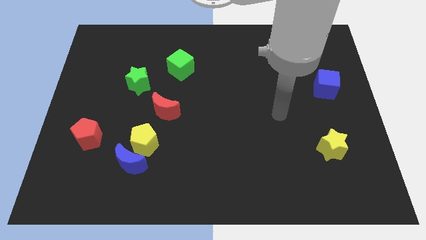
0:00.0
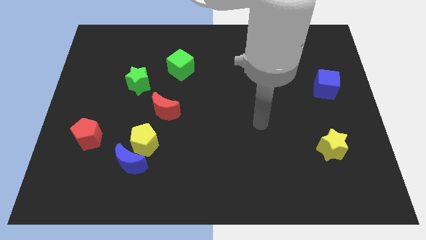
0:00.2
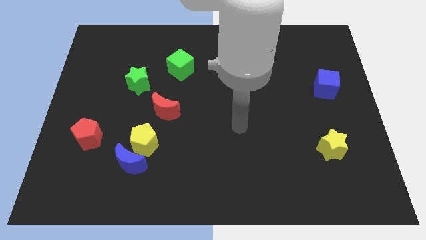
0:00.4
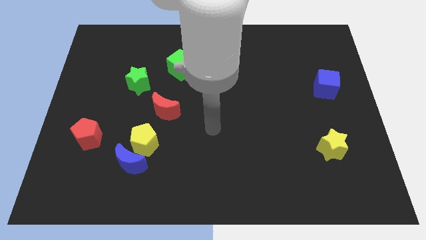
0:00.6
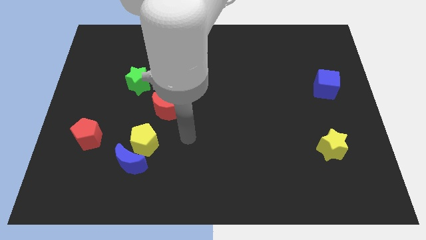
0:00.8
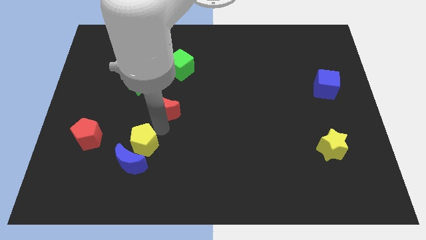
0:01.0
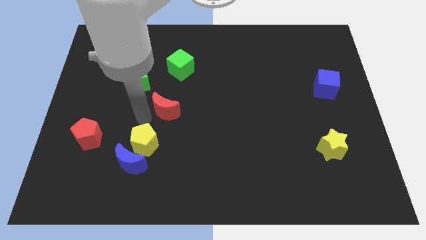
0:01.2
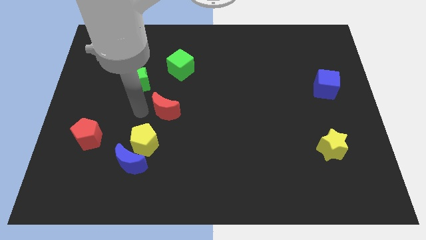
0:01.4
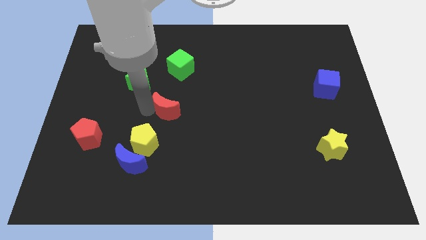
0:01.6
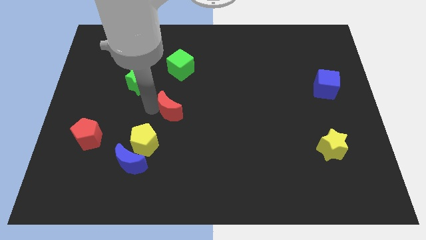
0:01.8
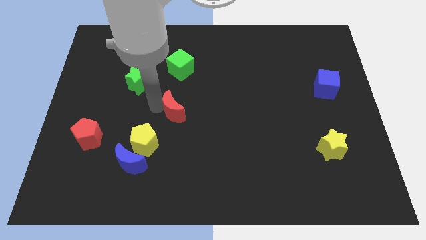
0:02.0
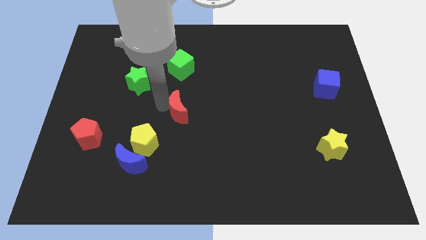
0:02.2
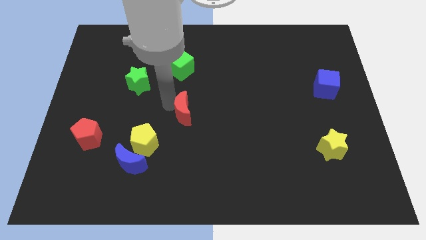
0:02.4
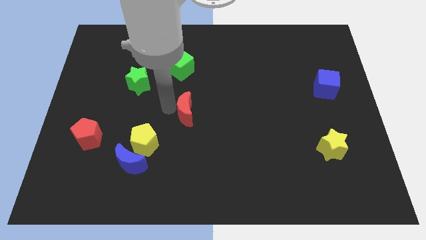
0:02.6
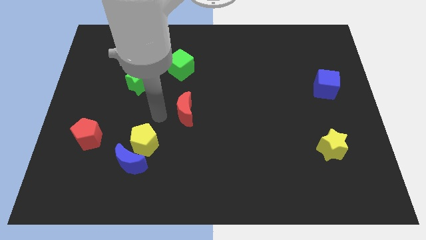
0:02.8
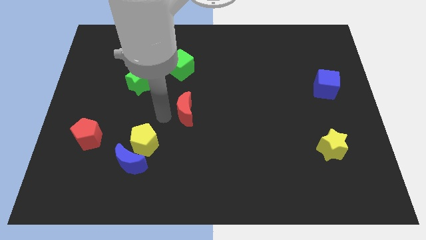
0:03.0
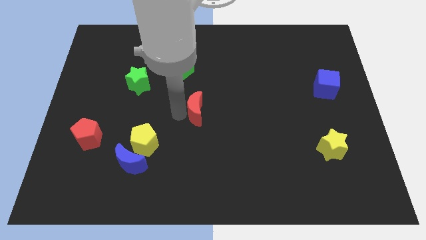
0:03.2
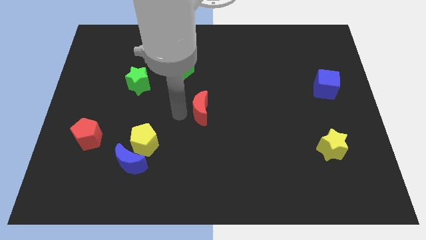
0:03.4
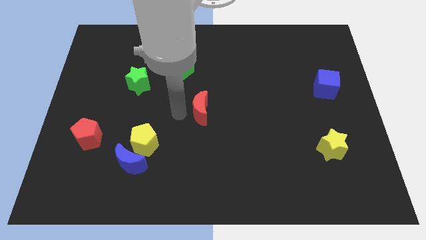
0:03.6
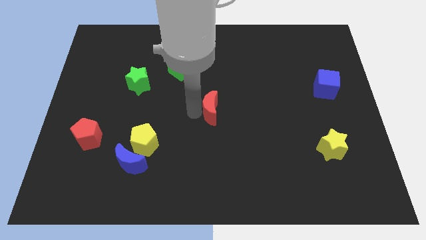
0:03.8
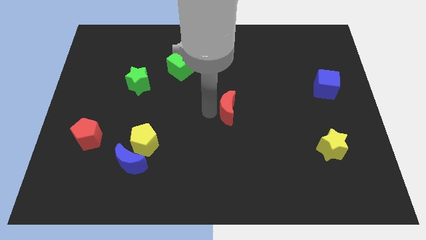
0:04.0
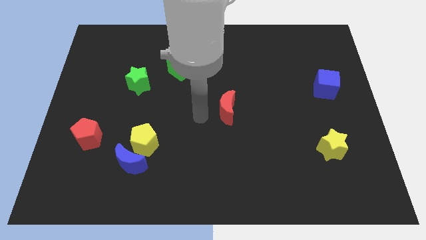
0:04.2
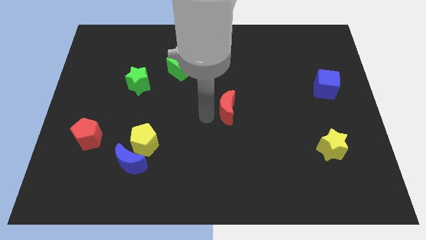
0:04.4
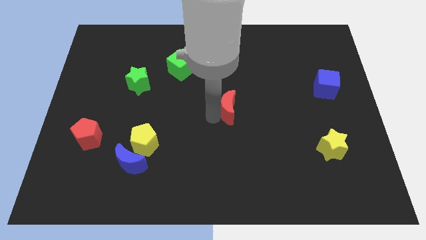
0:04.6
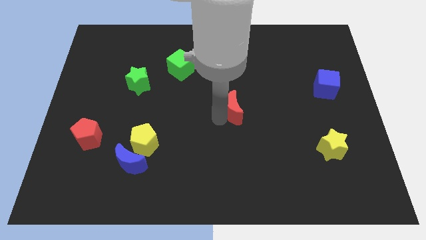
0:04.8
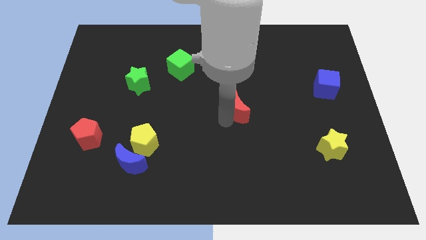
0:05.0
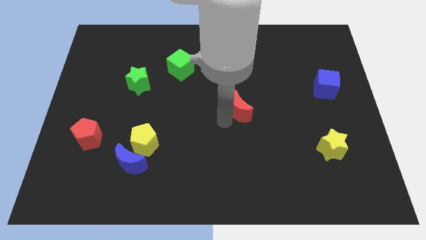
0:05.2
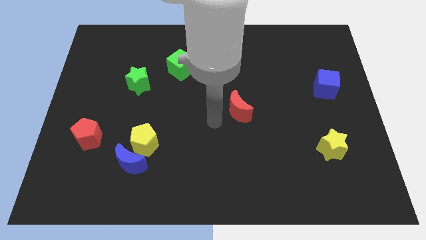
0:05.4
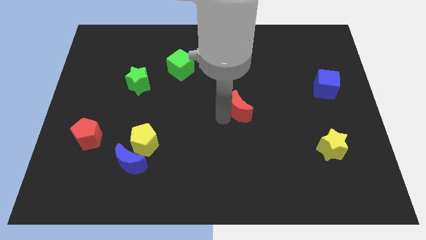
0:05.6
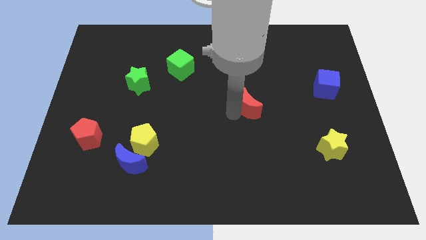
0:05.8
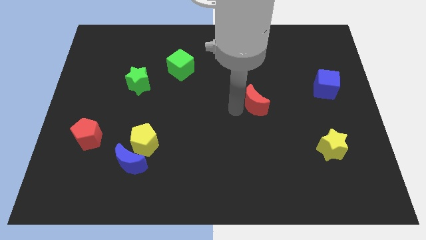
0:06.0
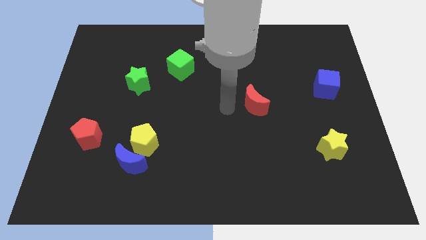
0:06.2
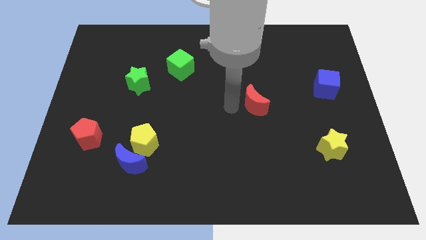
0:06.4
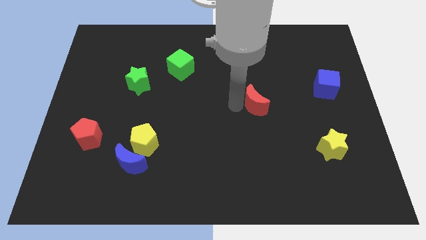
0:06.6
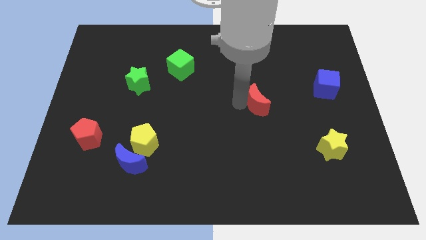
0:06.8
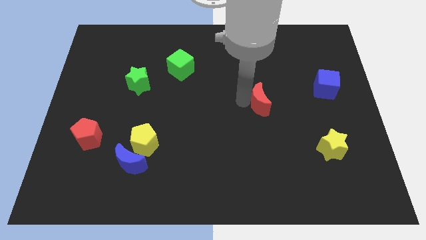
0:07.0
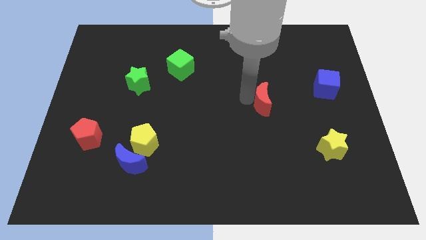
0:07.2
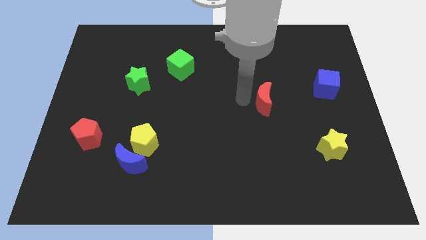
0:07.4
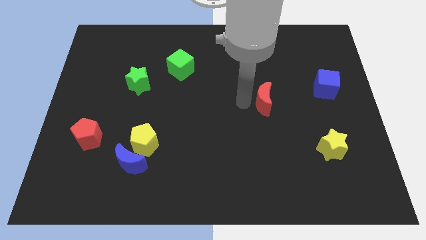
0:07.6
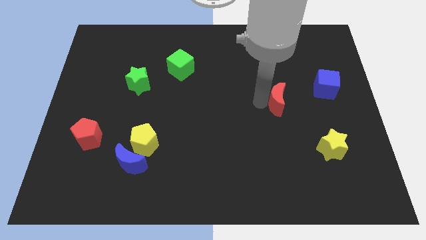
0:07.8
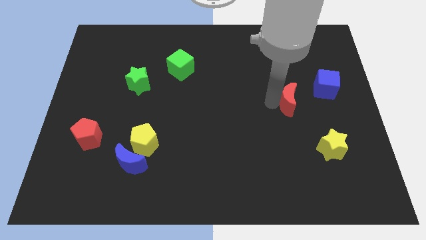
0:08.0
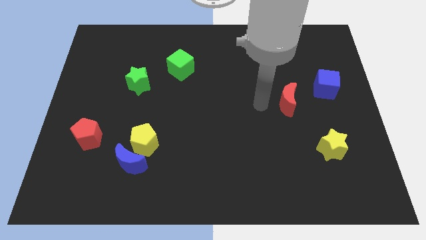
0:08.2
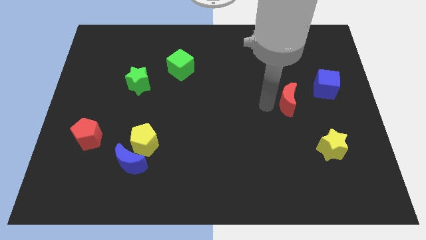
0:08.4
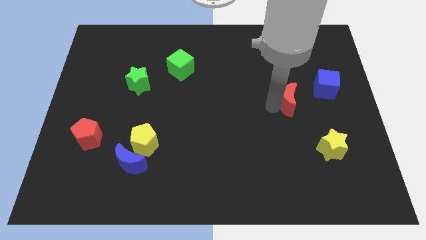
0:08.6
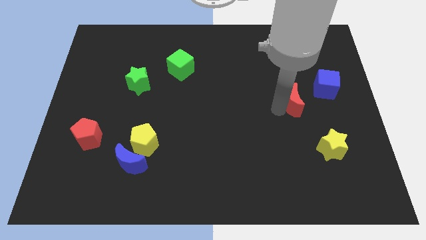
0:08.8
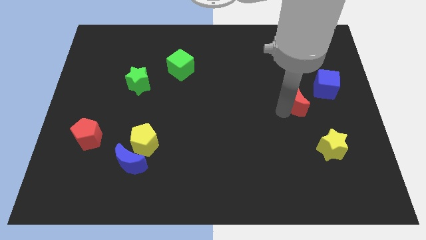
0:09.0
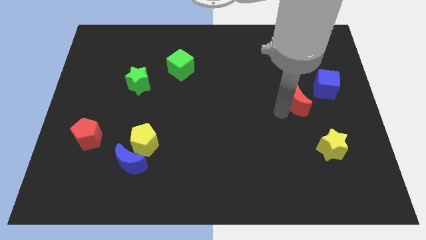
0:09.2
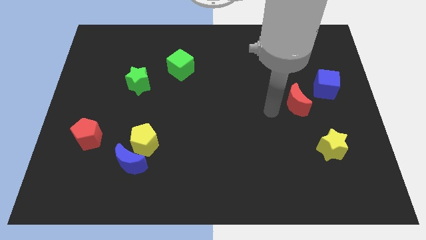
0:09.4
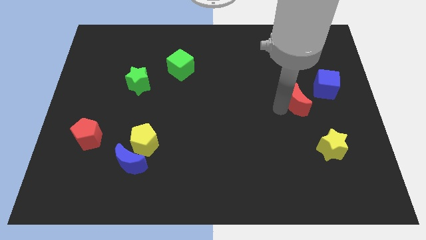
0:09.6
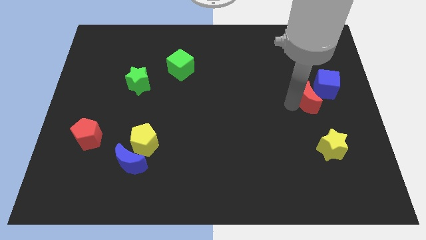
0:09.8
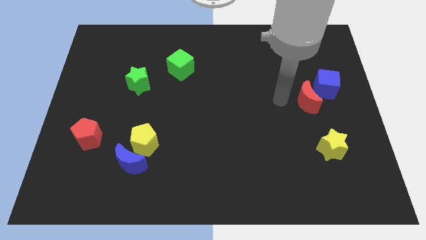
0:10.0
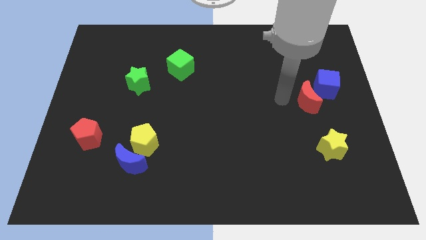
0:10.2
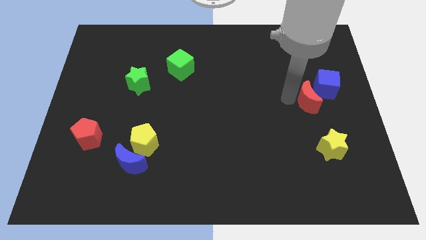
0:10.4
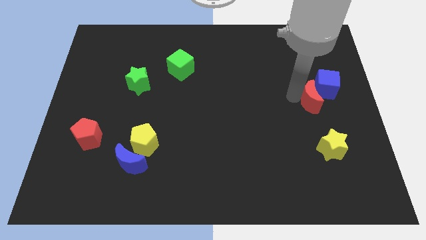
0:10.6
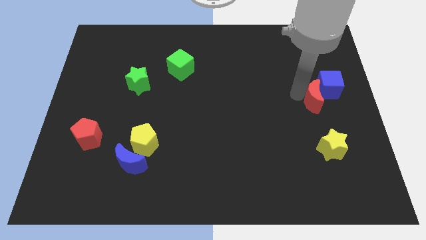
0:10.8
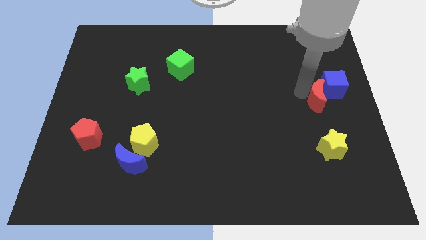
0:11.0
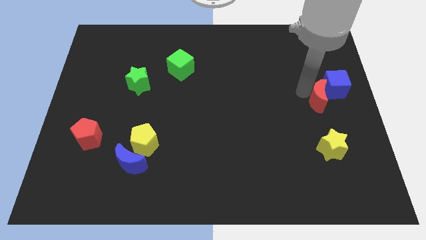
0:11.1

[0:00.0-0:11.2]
slide the red moon to the right side of the board
